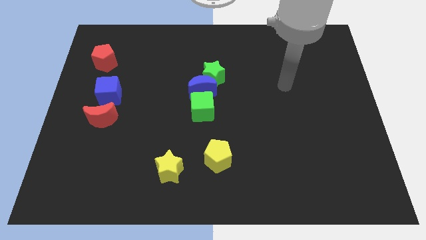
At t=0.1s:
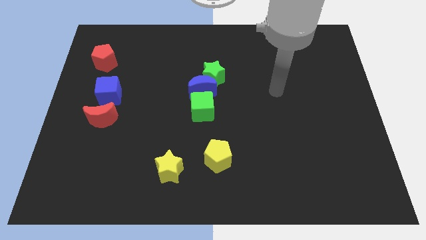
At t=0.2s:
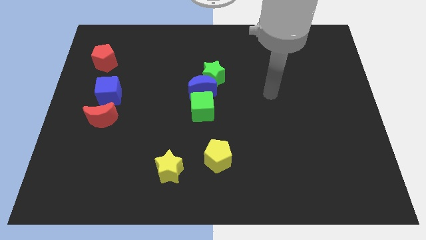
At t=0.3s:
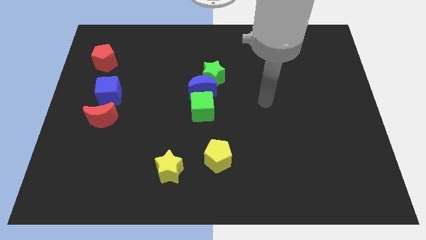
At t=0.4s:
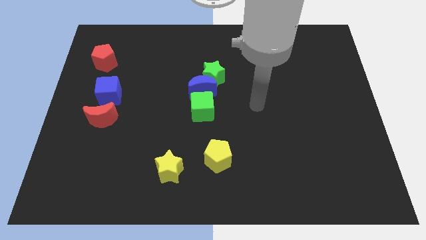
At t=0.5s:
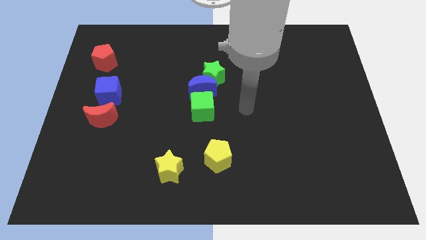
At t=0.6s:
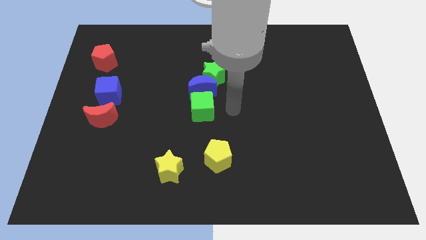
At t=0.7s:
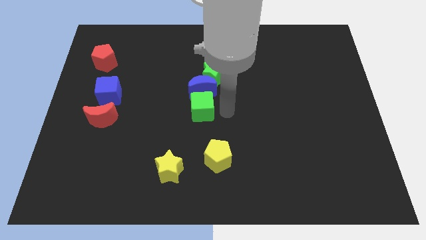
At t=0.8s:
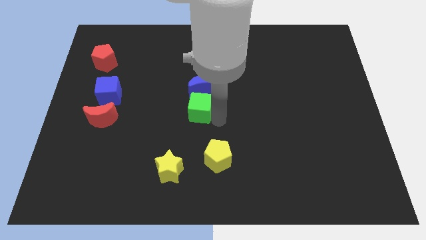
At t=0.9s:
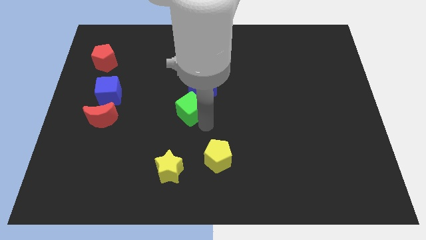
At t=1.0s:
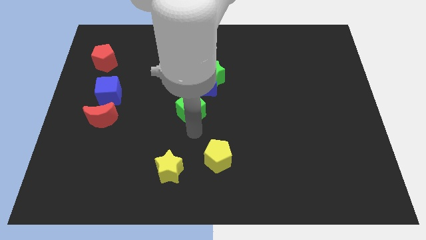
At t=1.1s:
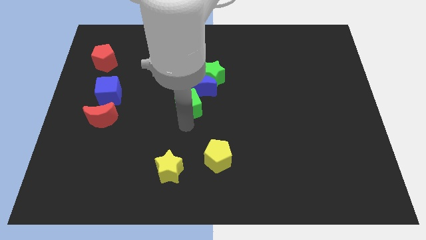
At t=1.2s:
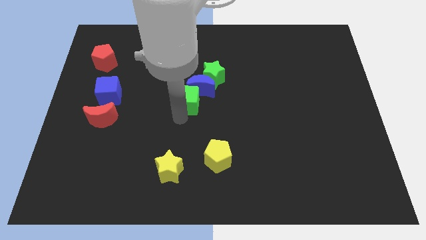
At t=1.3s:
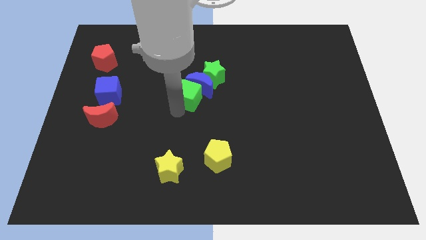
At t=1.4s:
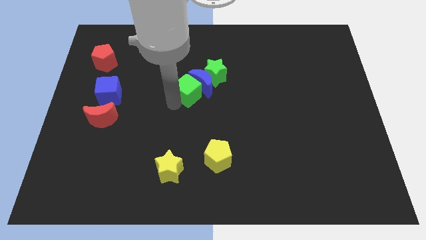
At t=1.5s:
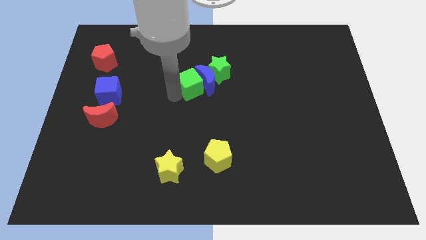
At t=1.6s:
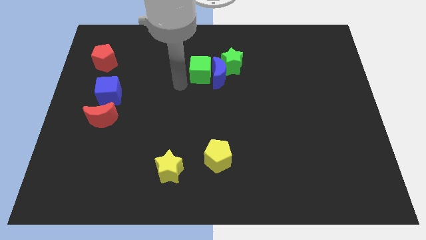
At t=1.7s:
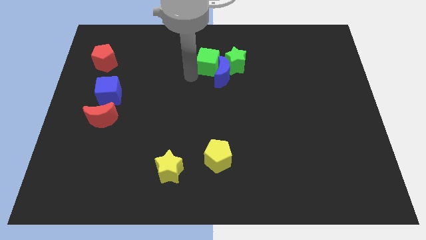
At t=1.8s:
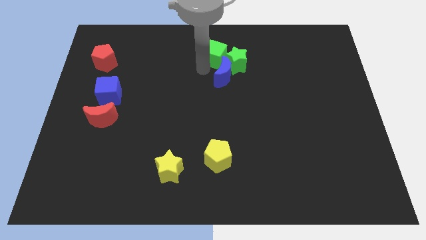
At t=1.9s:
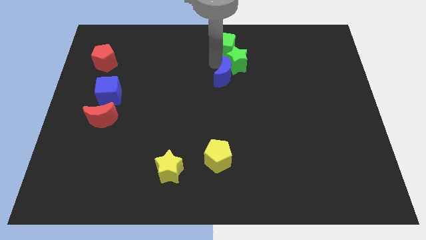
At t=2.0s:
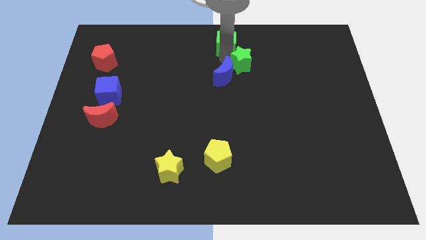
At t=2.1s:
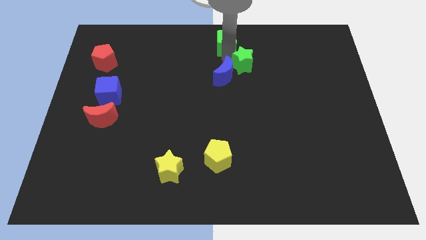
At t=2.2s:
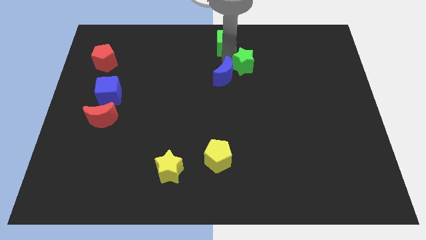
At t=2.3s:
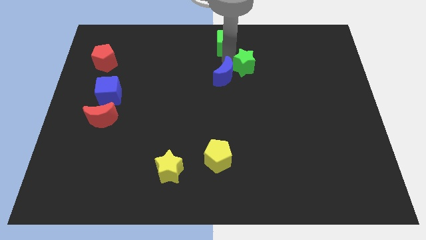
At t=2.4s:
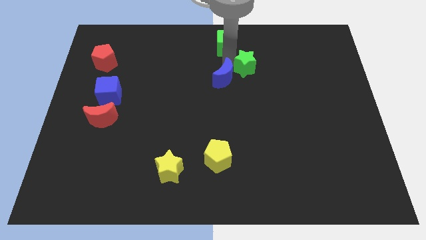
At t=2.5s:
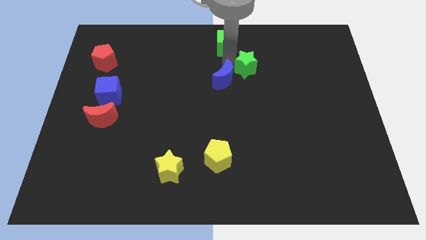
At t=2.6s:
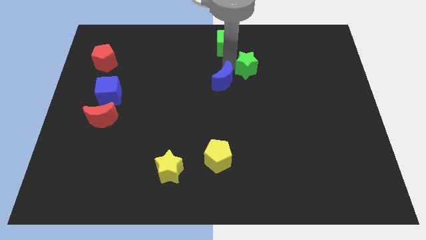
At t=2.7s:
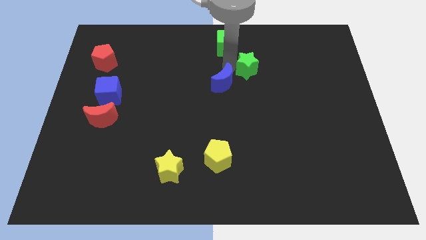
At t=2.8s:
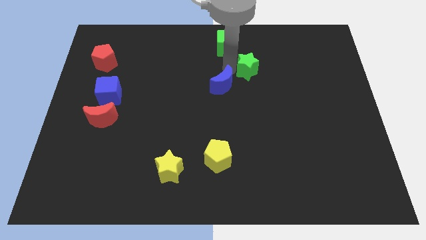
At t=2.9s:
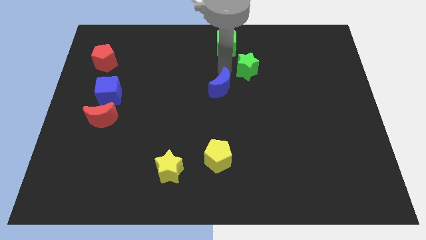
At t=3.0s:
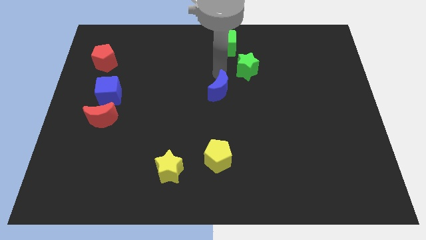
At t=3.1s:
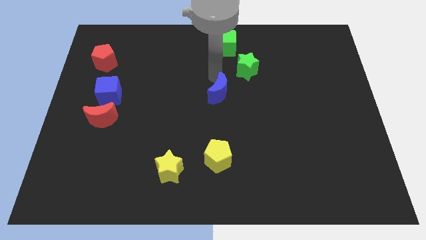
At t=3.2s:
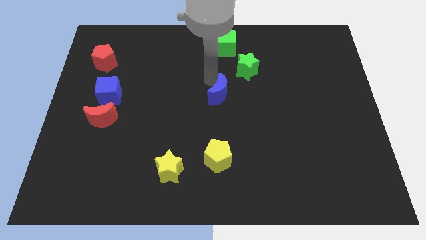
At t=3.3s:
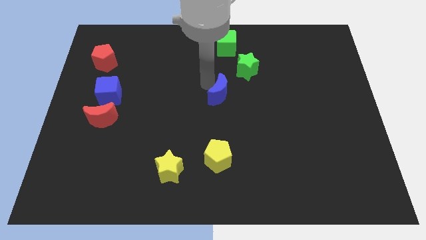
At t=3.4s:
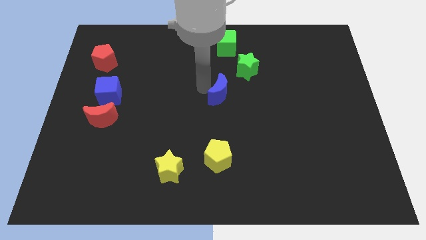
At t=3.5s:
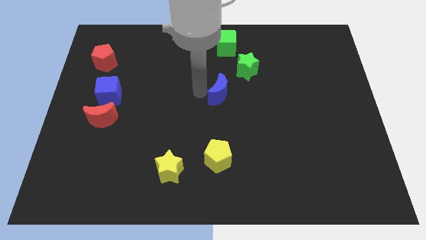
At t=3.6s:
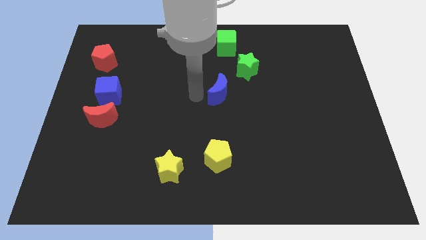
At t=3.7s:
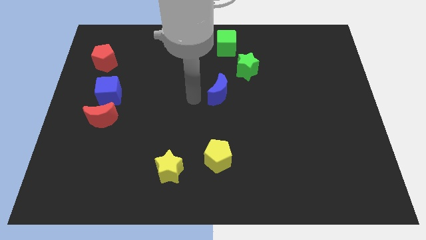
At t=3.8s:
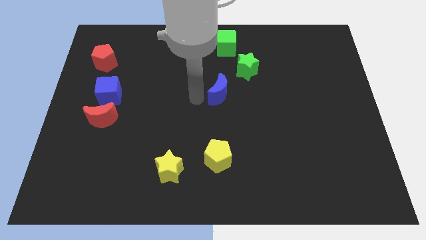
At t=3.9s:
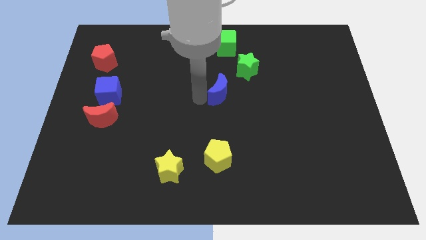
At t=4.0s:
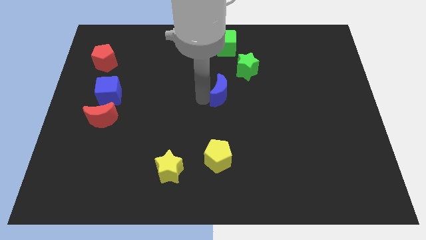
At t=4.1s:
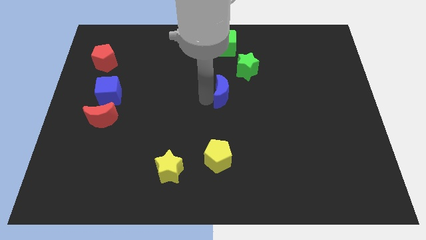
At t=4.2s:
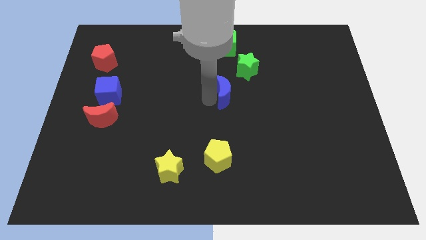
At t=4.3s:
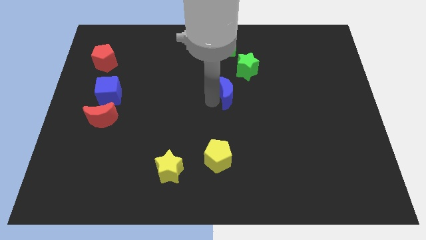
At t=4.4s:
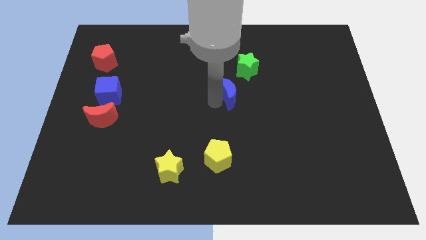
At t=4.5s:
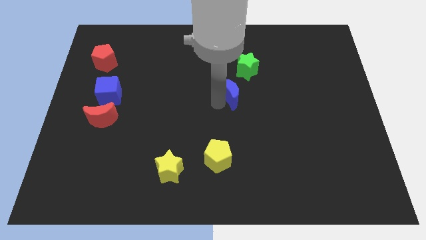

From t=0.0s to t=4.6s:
push the blue moon somewhat right

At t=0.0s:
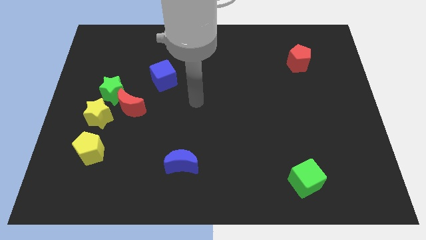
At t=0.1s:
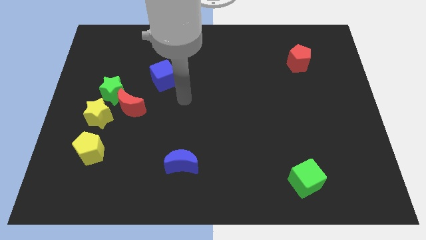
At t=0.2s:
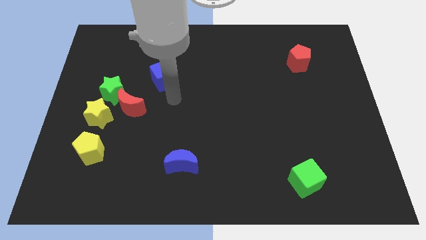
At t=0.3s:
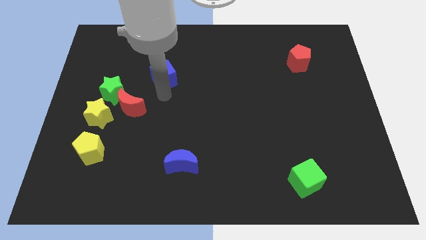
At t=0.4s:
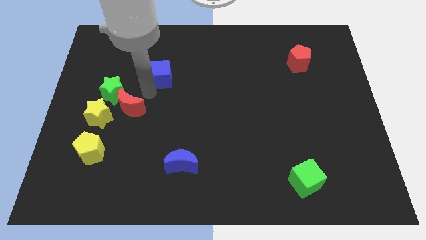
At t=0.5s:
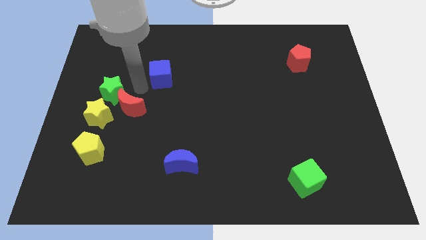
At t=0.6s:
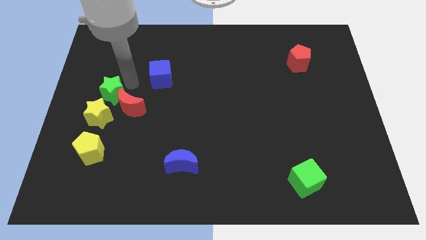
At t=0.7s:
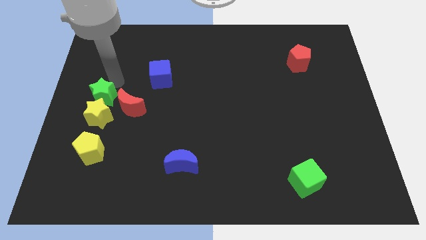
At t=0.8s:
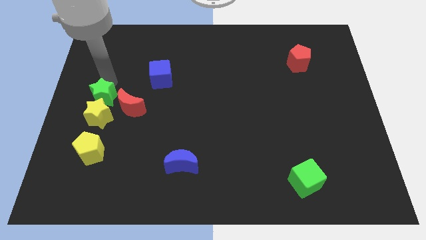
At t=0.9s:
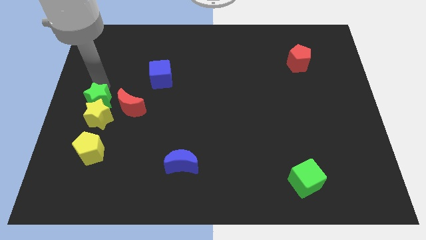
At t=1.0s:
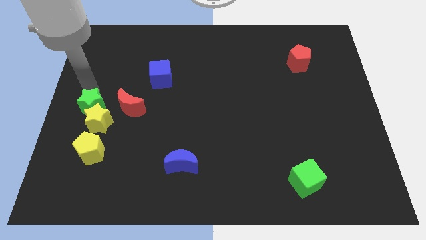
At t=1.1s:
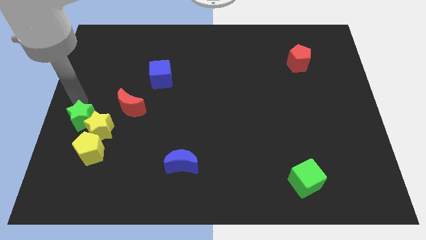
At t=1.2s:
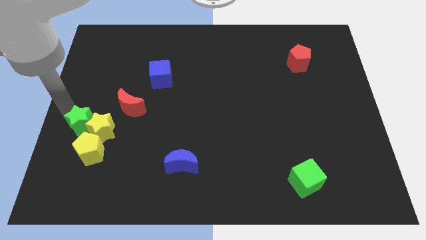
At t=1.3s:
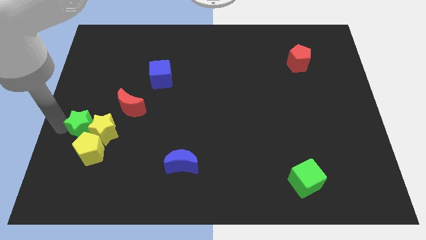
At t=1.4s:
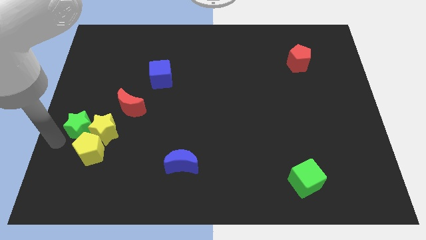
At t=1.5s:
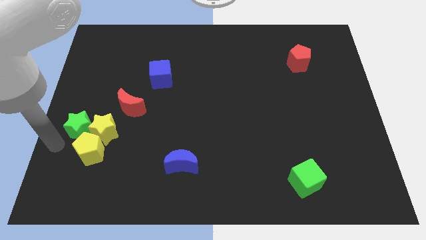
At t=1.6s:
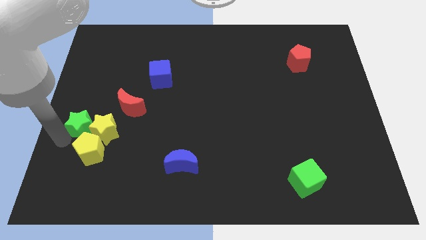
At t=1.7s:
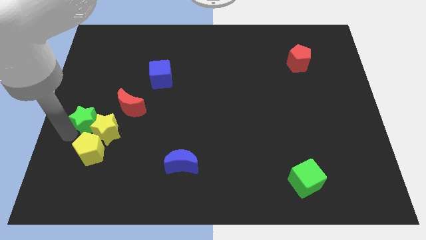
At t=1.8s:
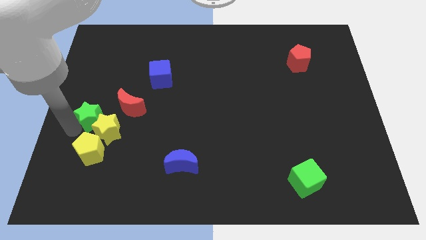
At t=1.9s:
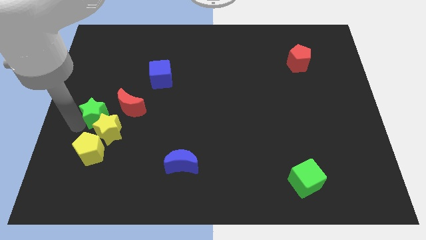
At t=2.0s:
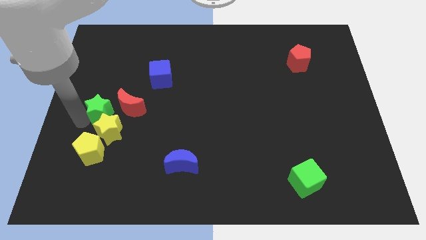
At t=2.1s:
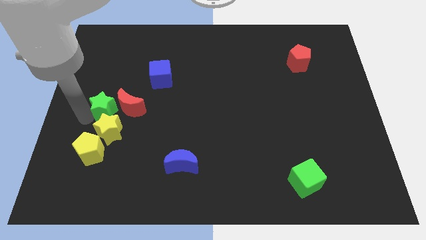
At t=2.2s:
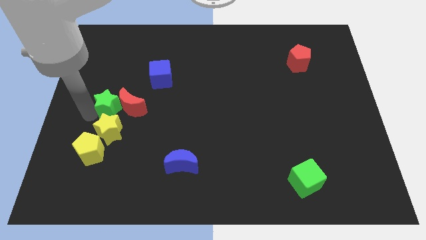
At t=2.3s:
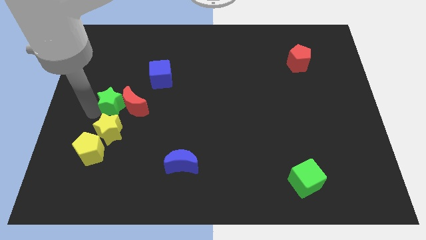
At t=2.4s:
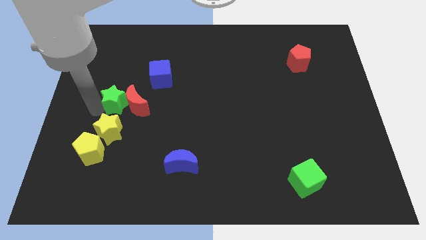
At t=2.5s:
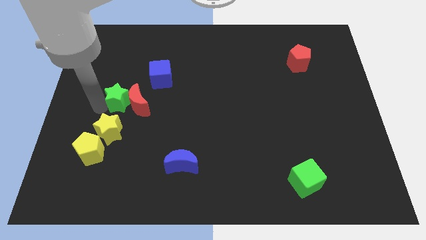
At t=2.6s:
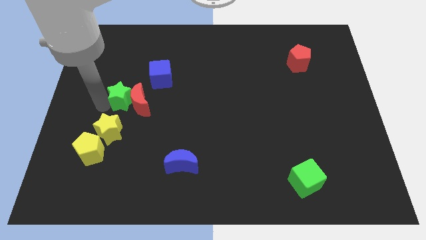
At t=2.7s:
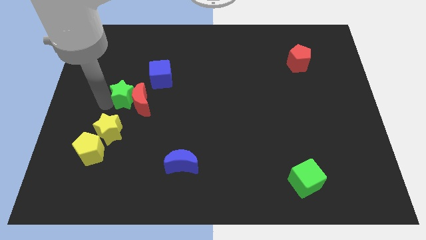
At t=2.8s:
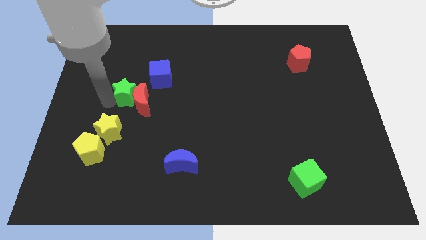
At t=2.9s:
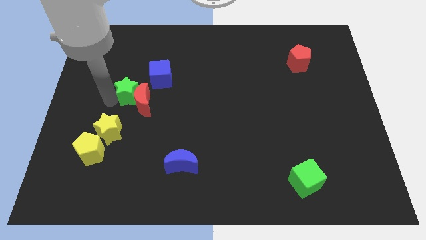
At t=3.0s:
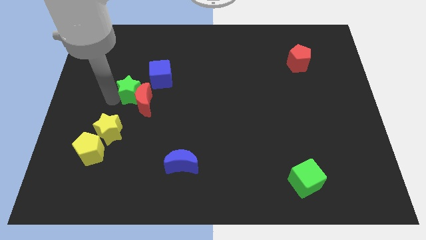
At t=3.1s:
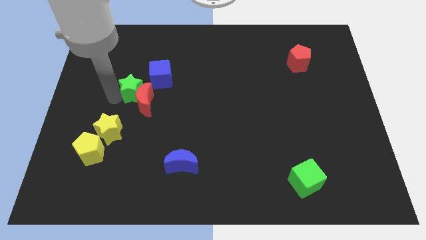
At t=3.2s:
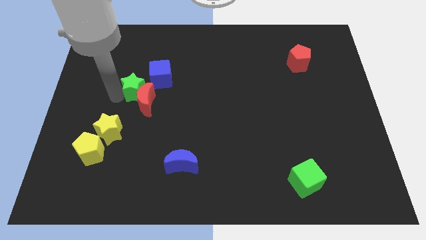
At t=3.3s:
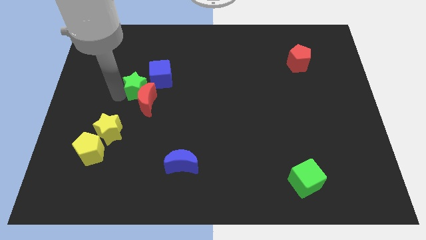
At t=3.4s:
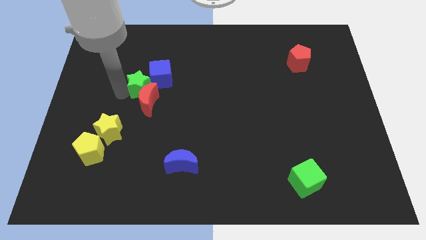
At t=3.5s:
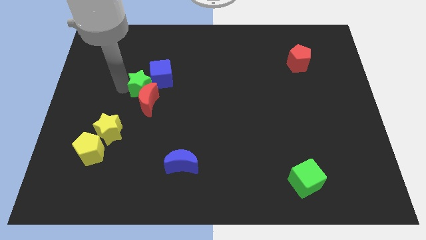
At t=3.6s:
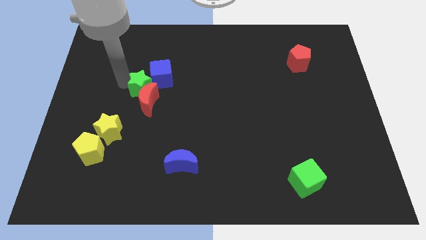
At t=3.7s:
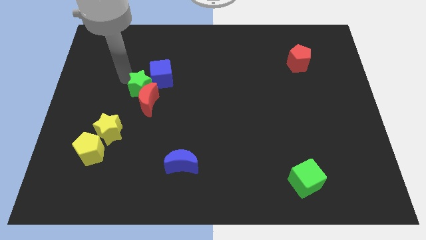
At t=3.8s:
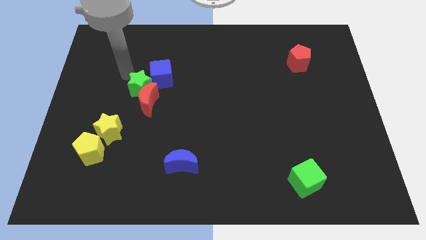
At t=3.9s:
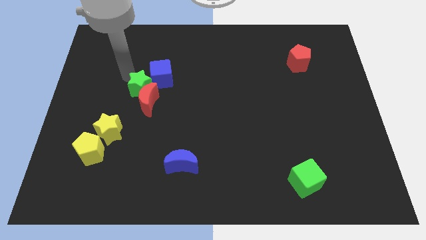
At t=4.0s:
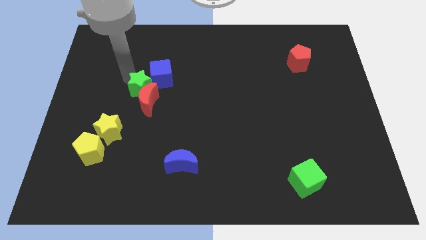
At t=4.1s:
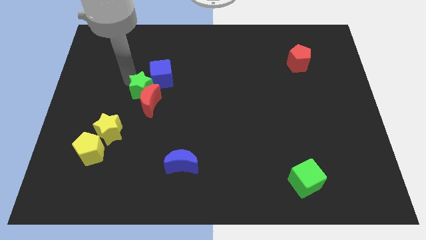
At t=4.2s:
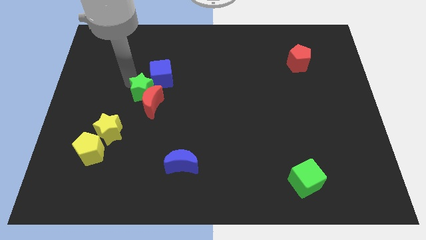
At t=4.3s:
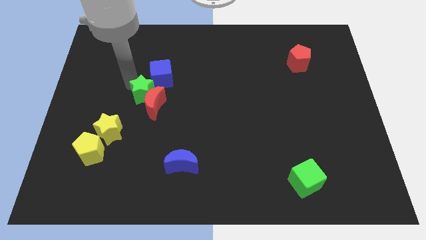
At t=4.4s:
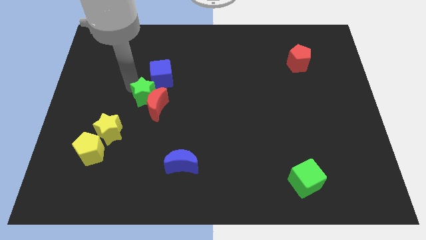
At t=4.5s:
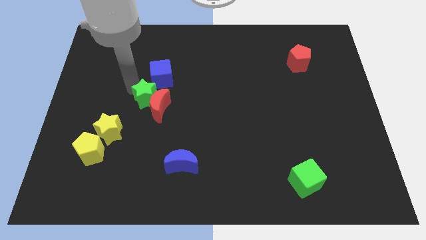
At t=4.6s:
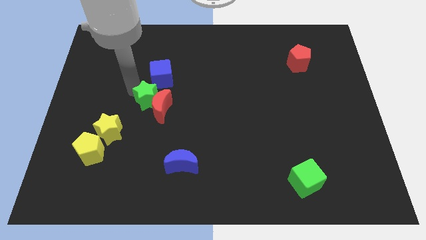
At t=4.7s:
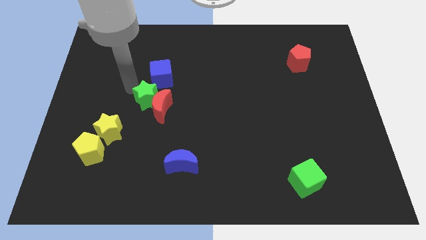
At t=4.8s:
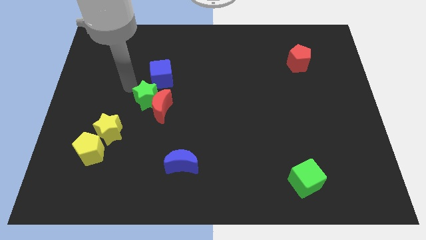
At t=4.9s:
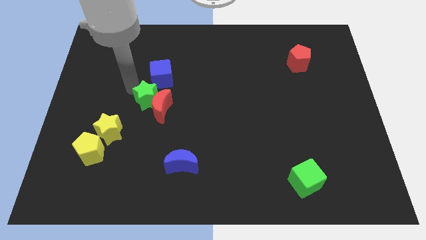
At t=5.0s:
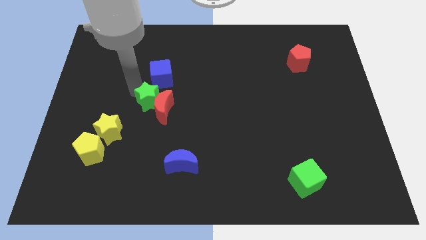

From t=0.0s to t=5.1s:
push the green star down and right diagonally a little bit
